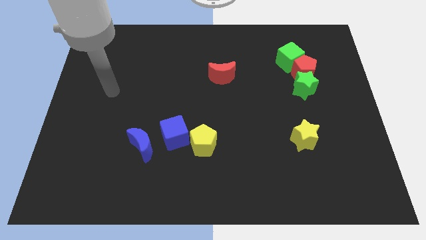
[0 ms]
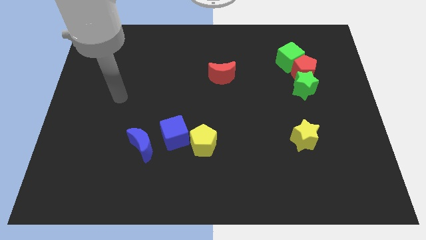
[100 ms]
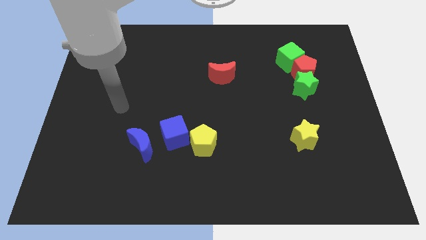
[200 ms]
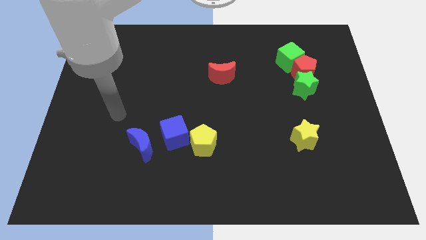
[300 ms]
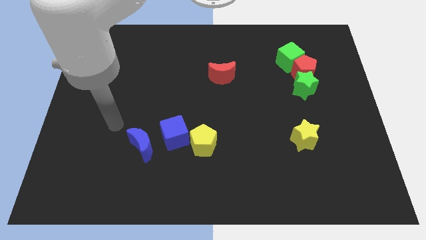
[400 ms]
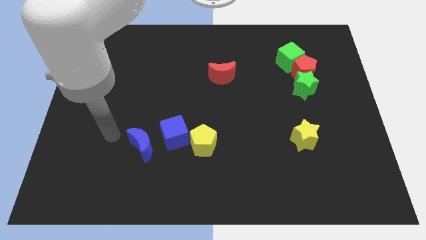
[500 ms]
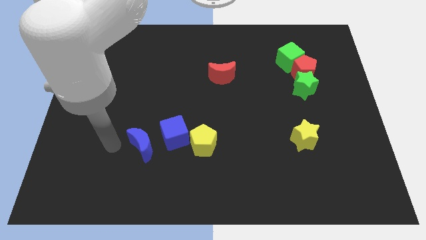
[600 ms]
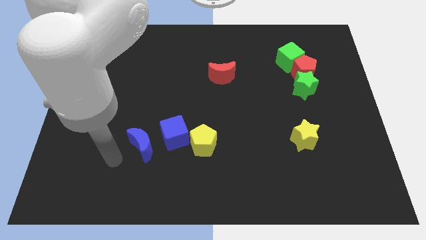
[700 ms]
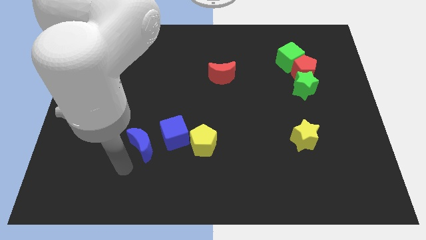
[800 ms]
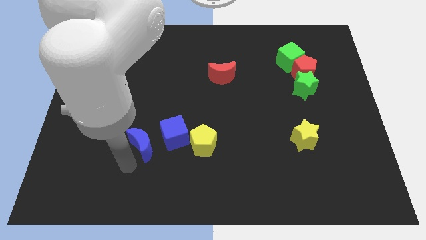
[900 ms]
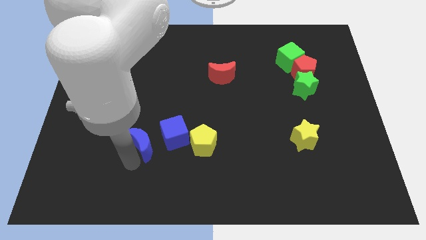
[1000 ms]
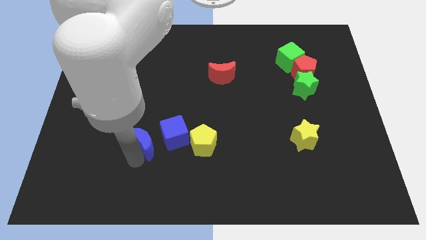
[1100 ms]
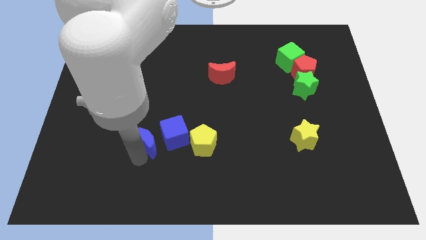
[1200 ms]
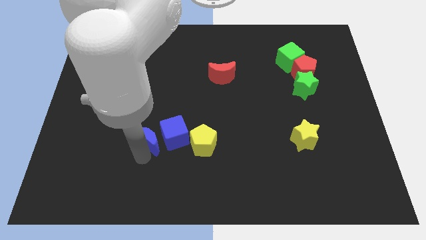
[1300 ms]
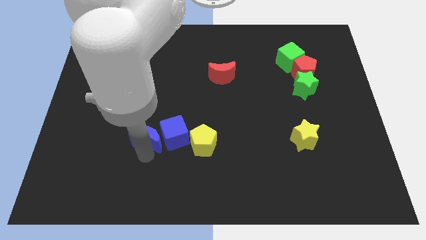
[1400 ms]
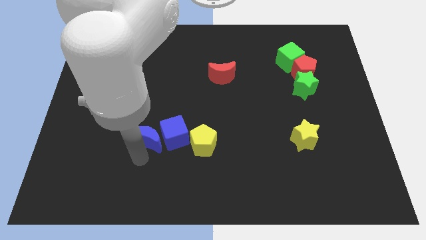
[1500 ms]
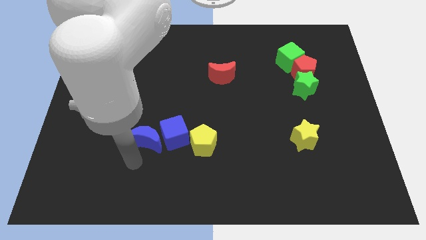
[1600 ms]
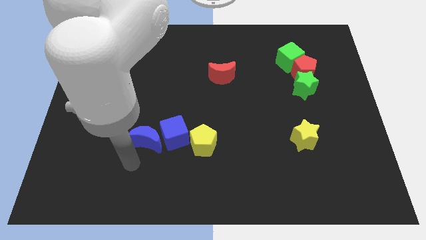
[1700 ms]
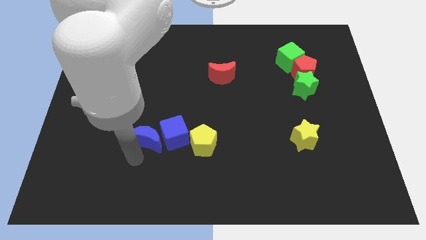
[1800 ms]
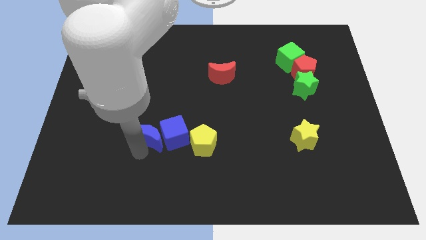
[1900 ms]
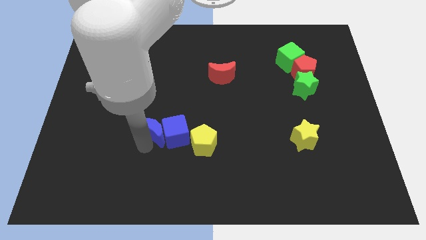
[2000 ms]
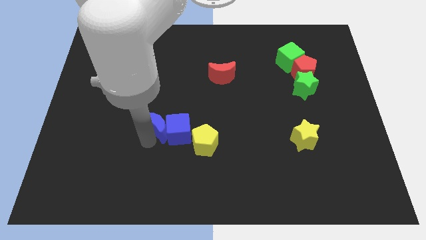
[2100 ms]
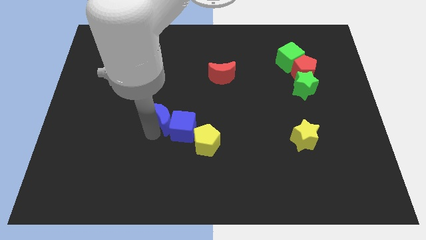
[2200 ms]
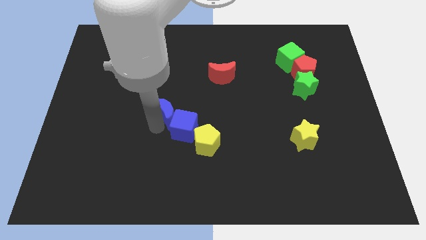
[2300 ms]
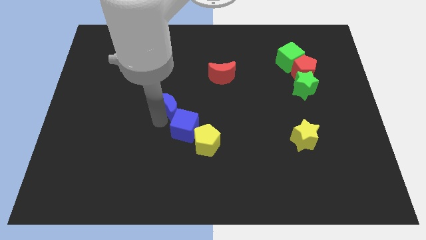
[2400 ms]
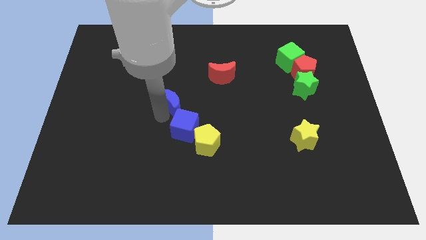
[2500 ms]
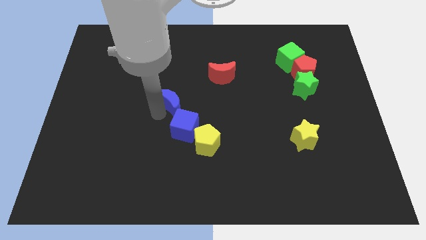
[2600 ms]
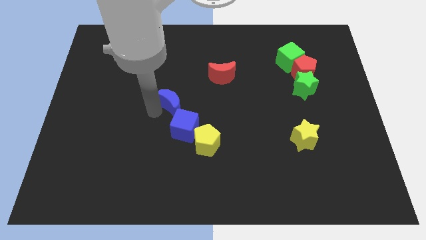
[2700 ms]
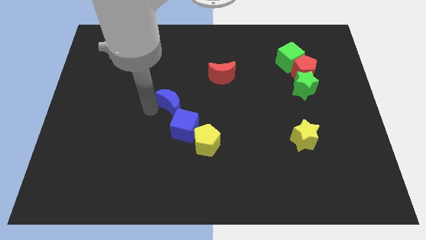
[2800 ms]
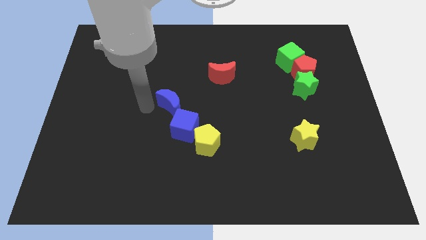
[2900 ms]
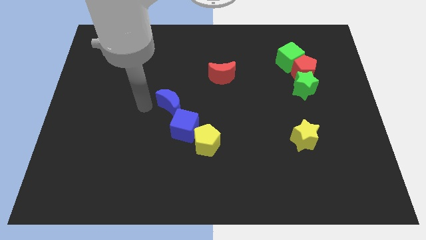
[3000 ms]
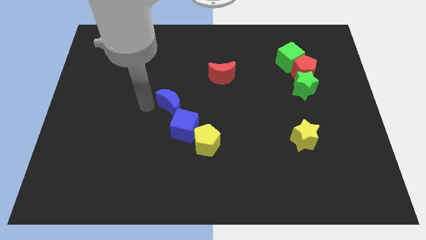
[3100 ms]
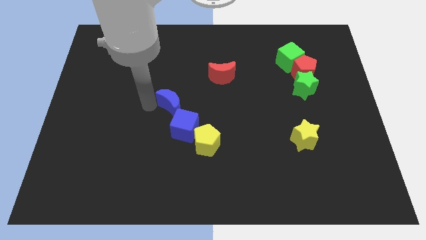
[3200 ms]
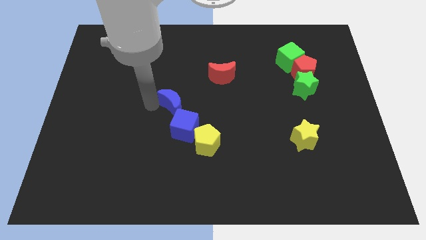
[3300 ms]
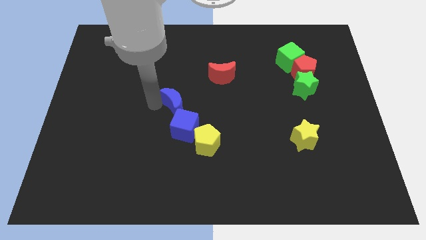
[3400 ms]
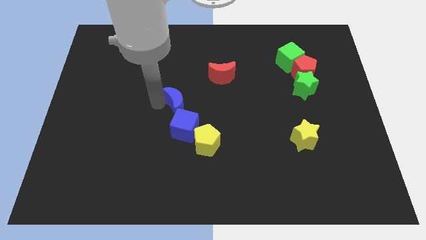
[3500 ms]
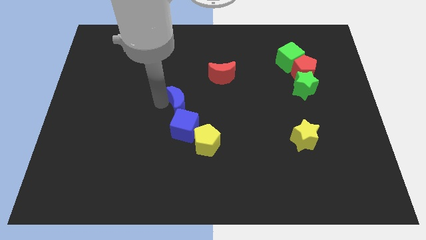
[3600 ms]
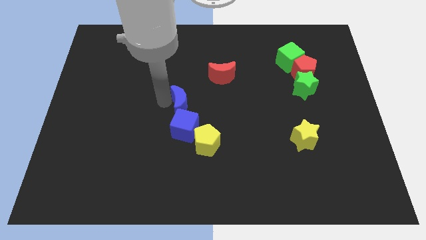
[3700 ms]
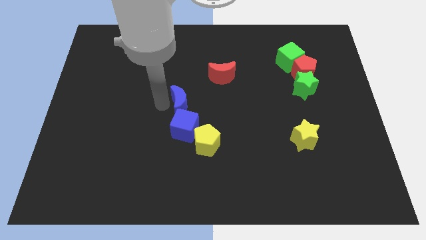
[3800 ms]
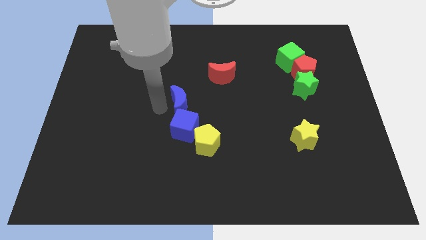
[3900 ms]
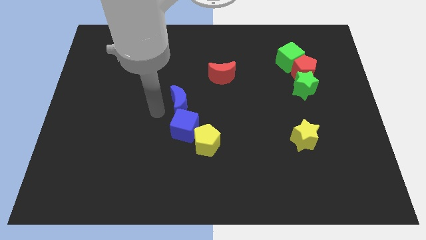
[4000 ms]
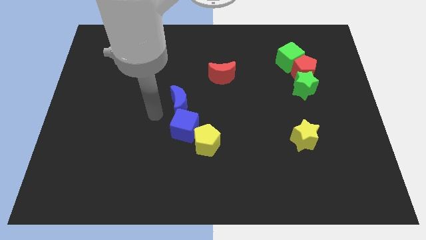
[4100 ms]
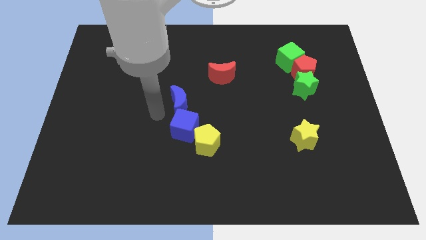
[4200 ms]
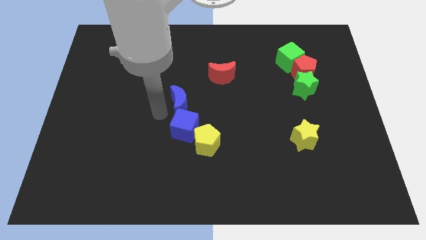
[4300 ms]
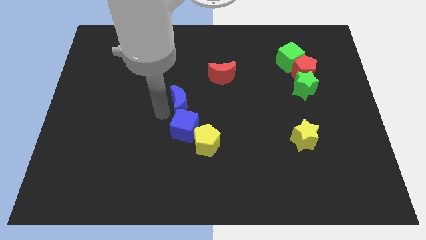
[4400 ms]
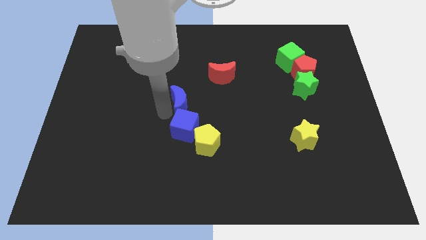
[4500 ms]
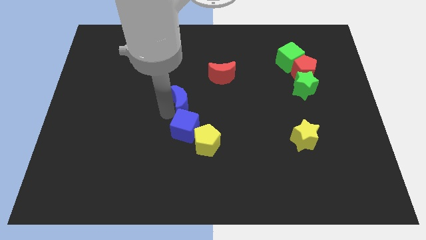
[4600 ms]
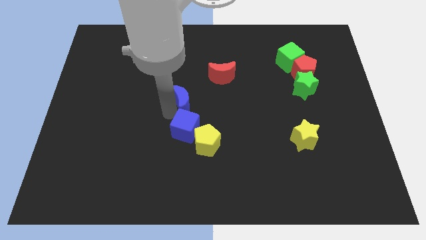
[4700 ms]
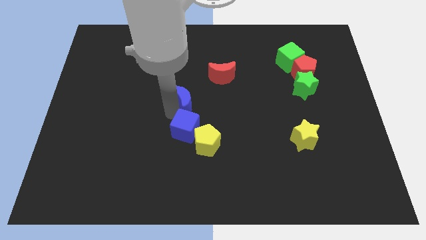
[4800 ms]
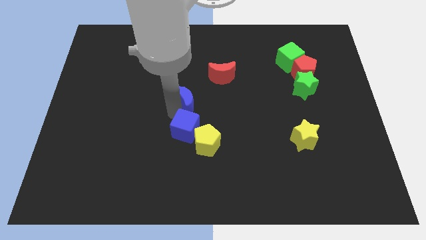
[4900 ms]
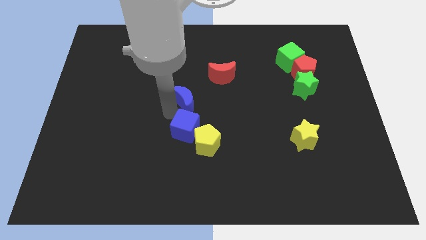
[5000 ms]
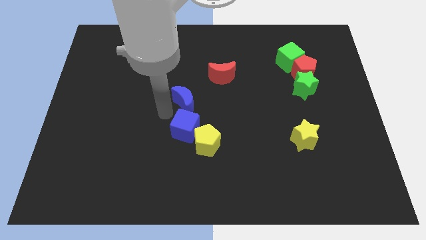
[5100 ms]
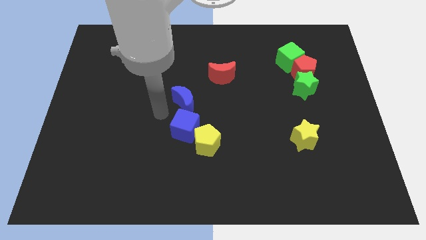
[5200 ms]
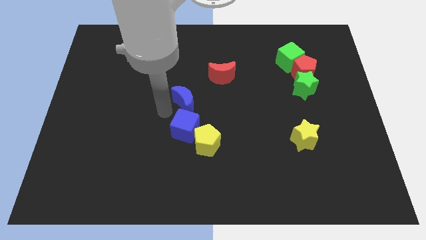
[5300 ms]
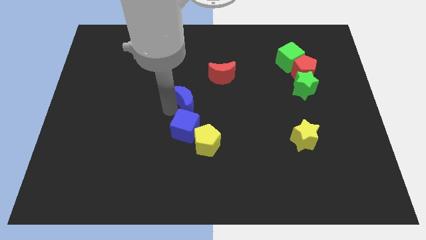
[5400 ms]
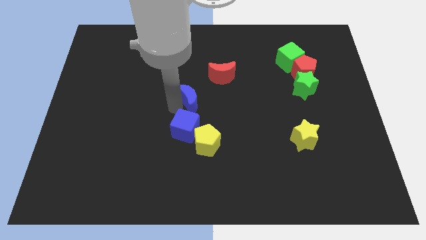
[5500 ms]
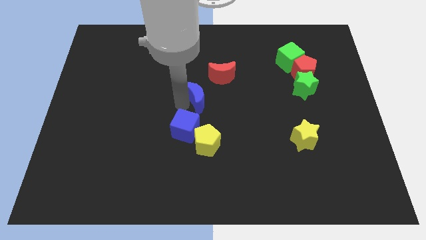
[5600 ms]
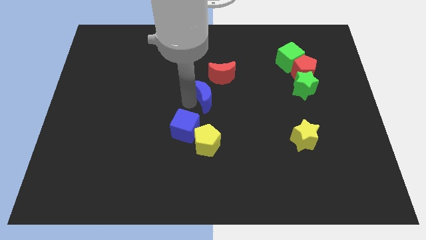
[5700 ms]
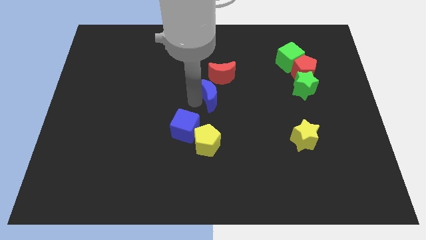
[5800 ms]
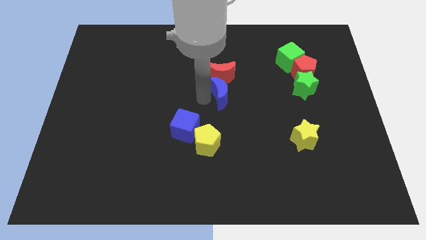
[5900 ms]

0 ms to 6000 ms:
push the blue moon to the bottom right of the red moon
